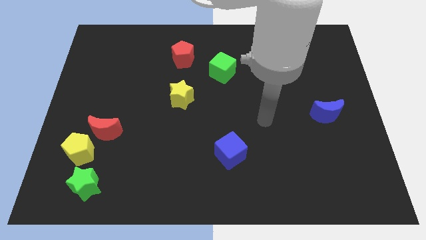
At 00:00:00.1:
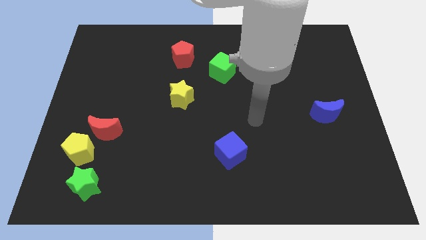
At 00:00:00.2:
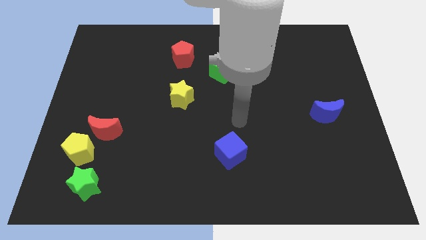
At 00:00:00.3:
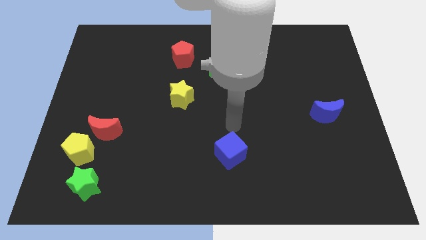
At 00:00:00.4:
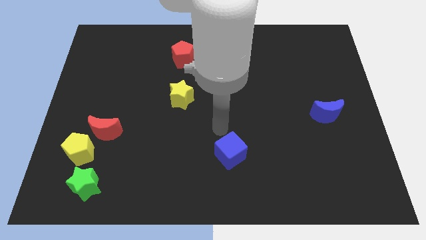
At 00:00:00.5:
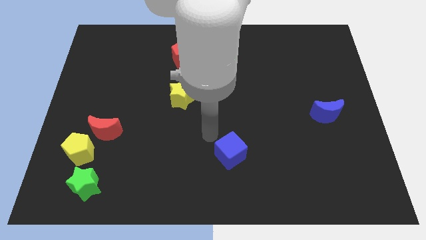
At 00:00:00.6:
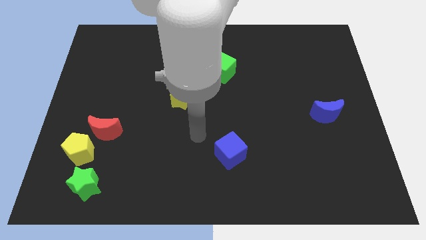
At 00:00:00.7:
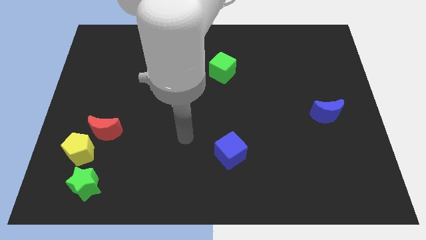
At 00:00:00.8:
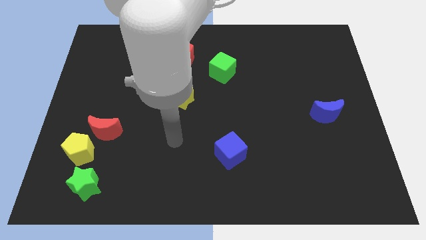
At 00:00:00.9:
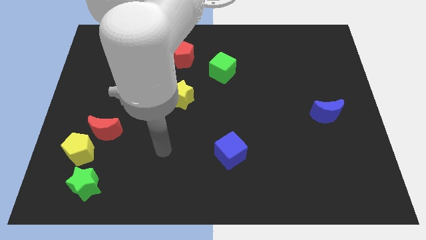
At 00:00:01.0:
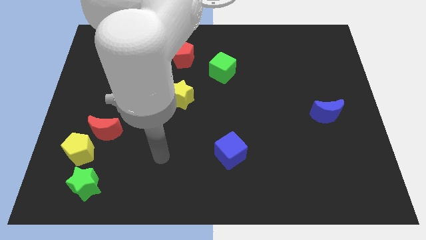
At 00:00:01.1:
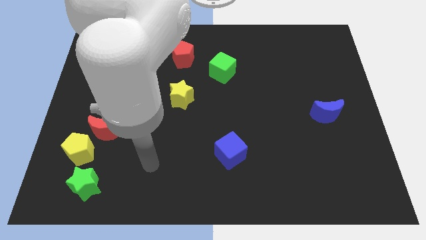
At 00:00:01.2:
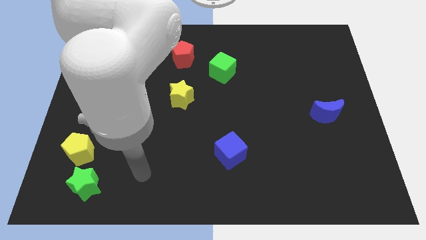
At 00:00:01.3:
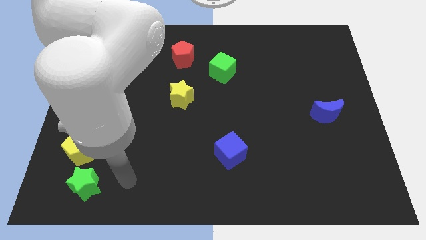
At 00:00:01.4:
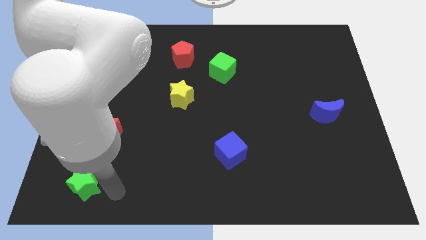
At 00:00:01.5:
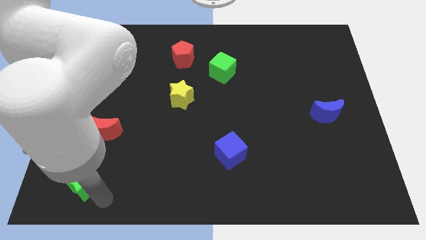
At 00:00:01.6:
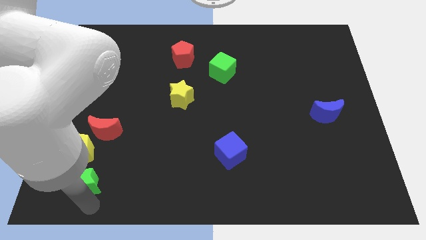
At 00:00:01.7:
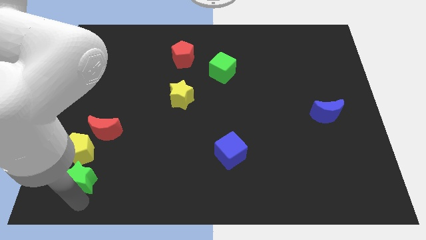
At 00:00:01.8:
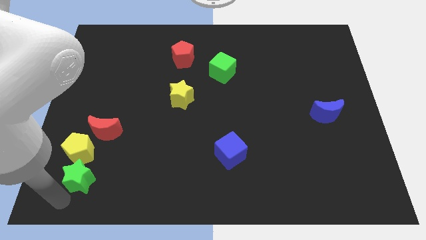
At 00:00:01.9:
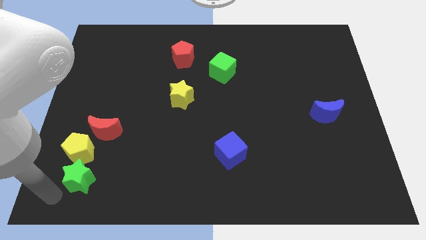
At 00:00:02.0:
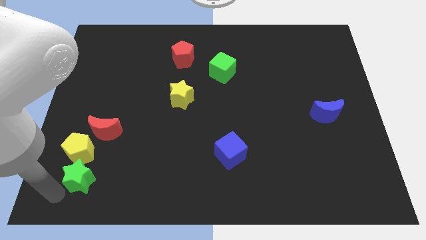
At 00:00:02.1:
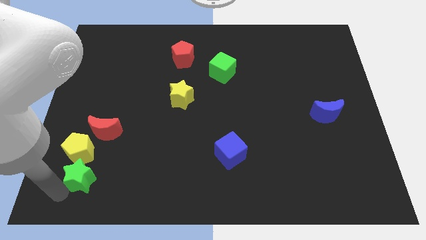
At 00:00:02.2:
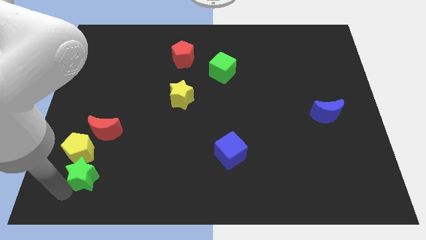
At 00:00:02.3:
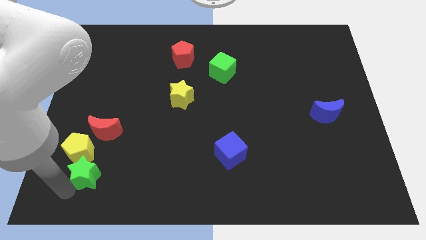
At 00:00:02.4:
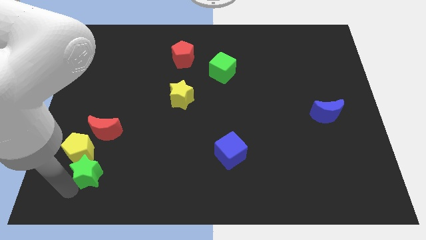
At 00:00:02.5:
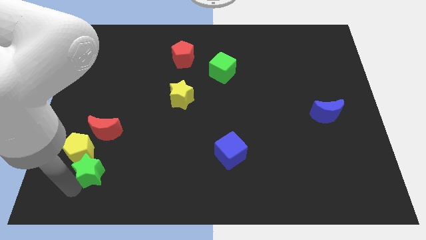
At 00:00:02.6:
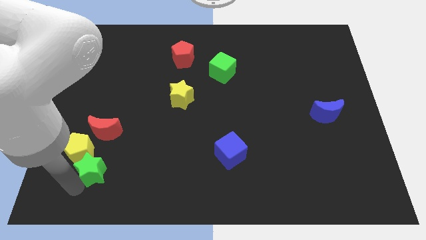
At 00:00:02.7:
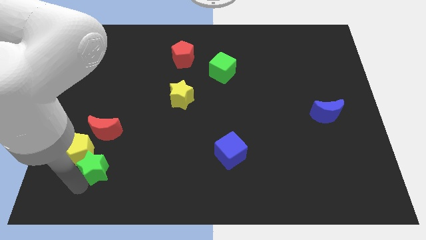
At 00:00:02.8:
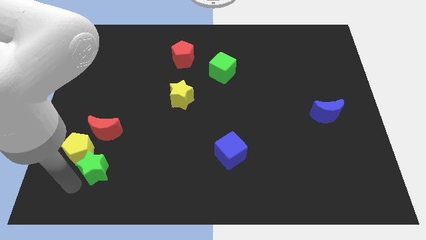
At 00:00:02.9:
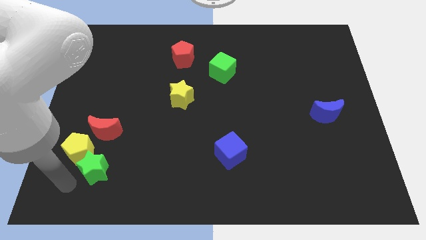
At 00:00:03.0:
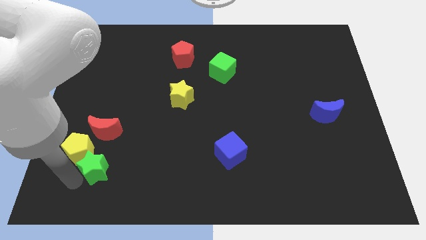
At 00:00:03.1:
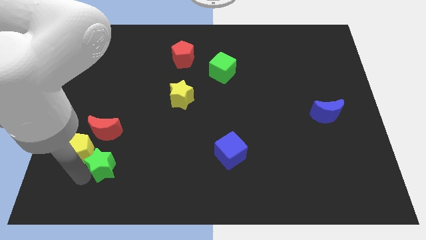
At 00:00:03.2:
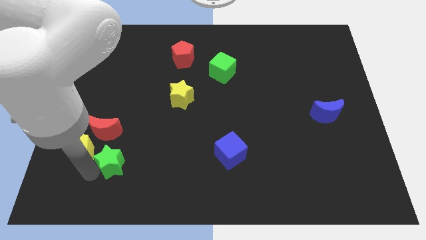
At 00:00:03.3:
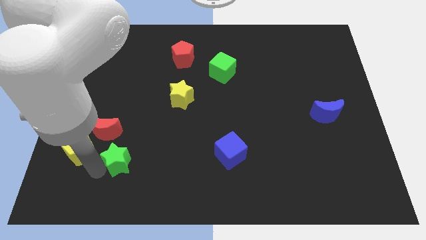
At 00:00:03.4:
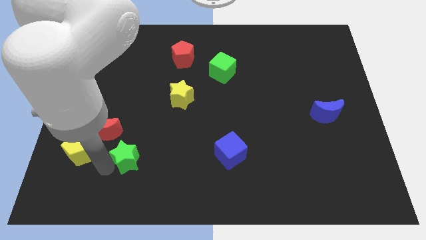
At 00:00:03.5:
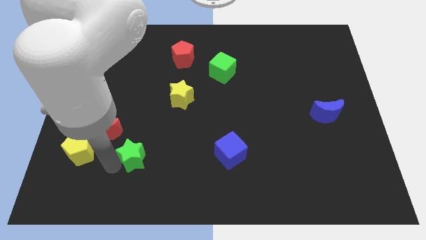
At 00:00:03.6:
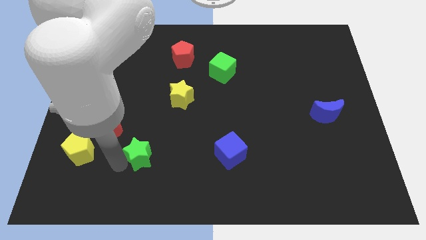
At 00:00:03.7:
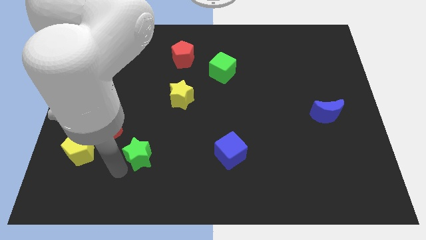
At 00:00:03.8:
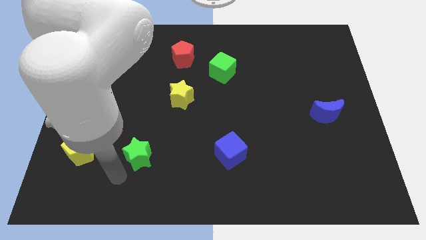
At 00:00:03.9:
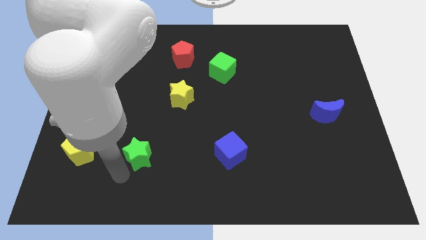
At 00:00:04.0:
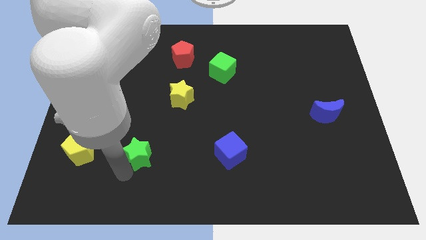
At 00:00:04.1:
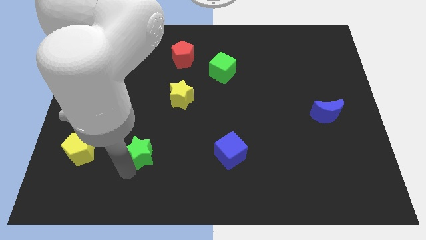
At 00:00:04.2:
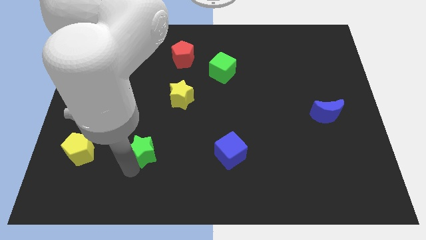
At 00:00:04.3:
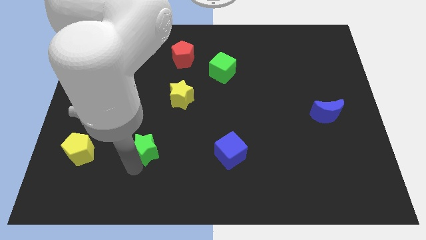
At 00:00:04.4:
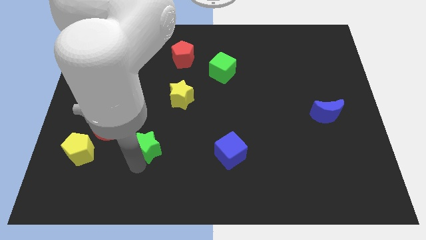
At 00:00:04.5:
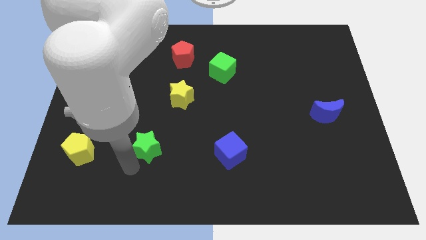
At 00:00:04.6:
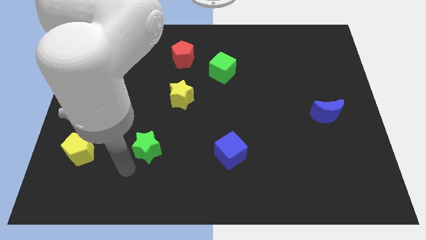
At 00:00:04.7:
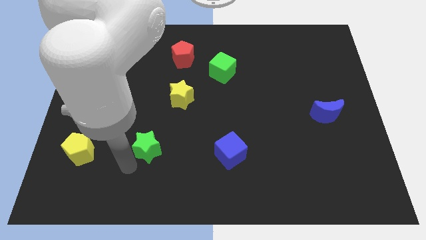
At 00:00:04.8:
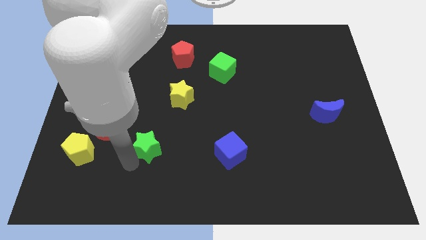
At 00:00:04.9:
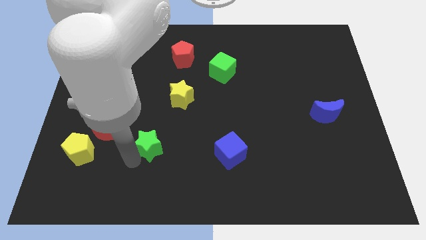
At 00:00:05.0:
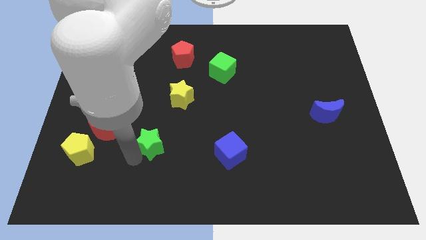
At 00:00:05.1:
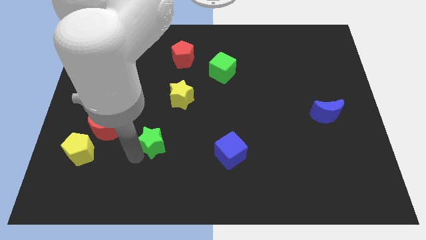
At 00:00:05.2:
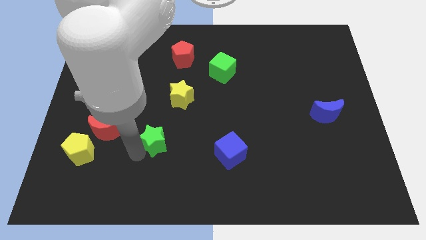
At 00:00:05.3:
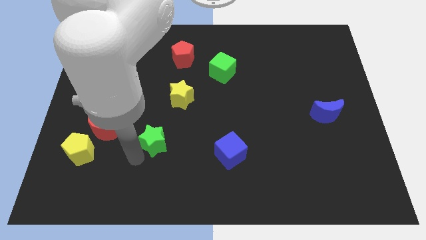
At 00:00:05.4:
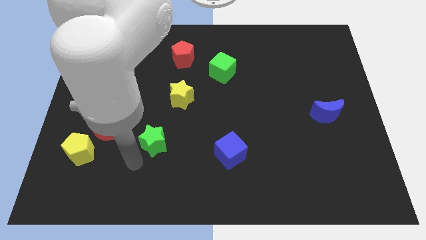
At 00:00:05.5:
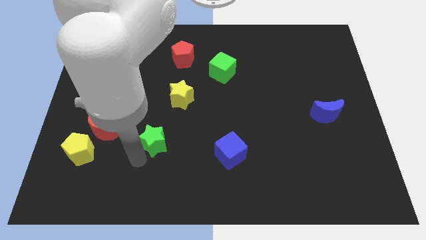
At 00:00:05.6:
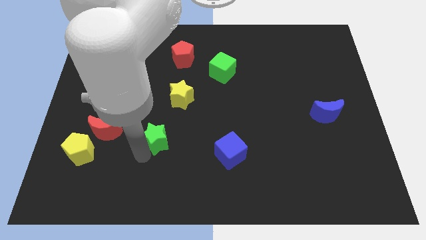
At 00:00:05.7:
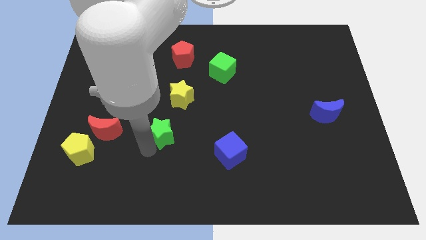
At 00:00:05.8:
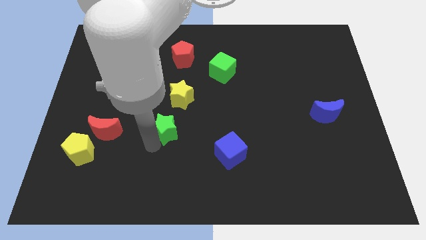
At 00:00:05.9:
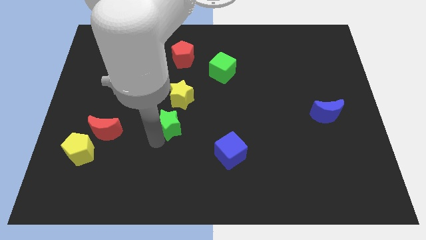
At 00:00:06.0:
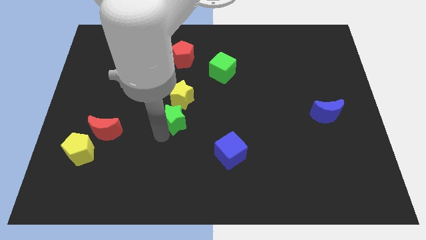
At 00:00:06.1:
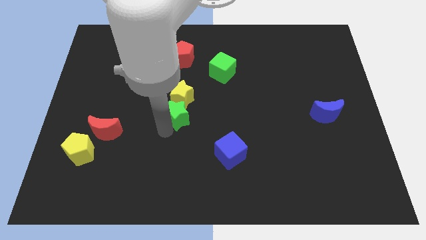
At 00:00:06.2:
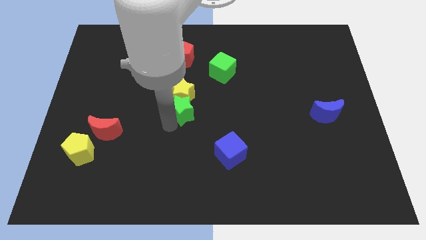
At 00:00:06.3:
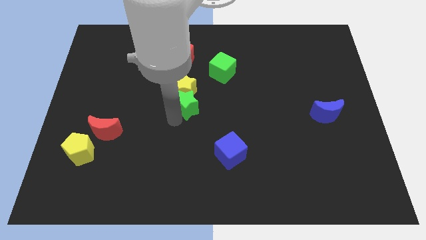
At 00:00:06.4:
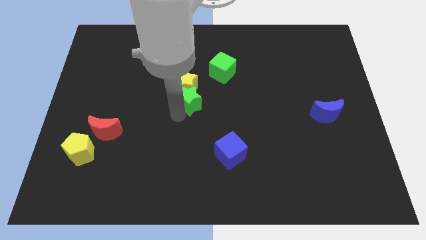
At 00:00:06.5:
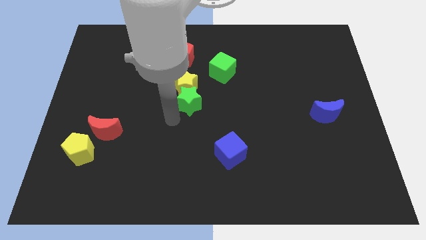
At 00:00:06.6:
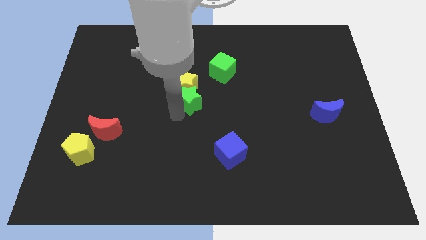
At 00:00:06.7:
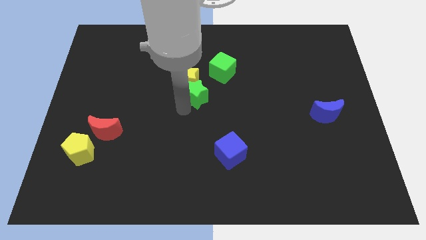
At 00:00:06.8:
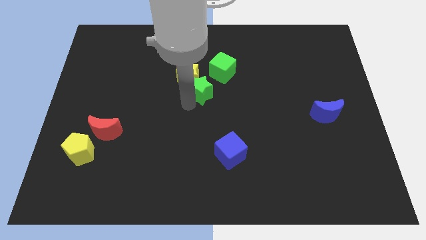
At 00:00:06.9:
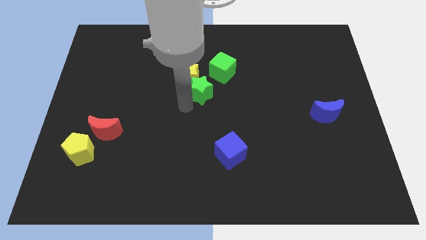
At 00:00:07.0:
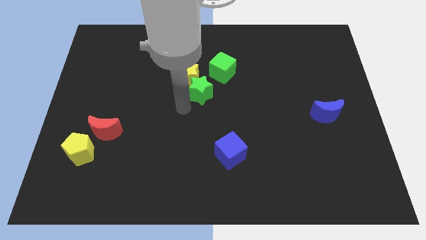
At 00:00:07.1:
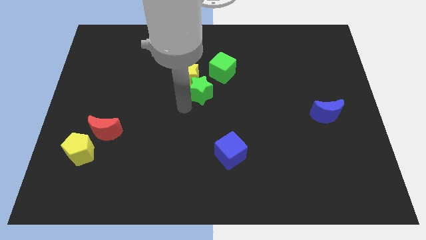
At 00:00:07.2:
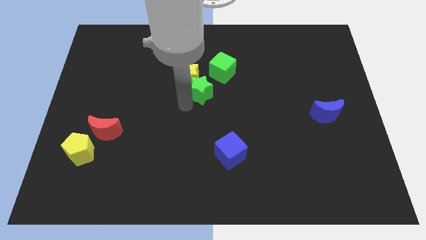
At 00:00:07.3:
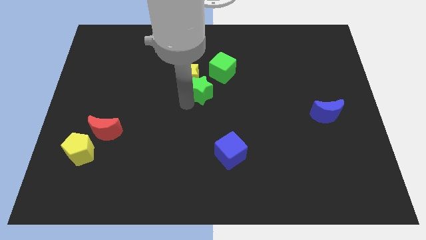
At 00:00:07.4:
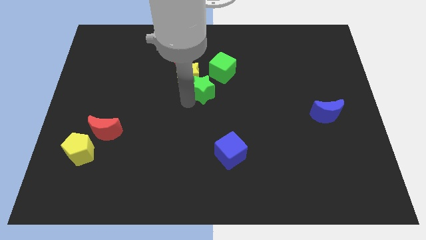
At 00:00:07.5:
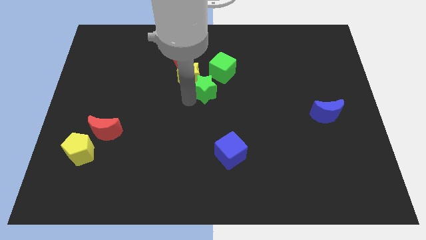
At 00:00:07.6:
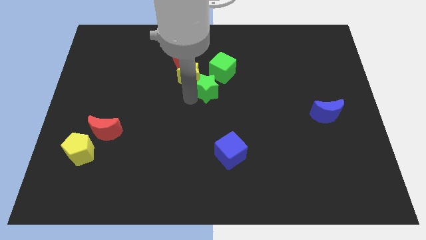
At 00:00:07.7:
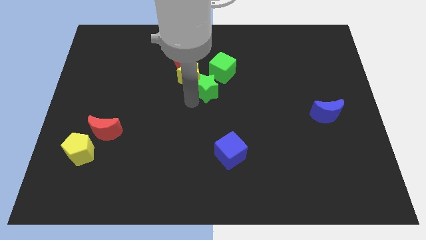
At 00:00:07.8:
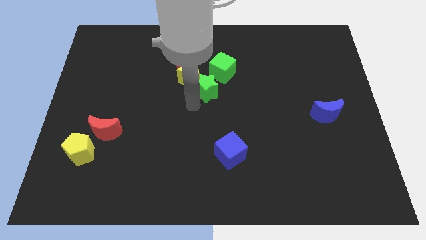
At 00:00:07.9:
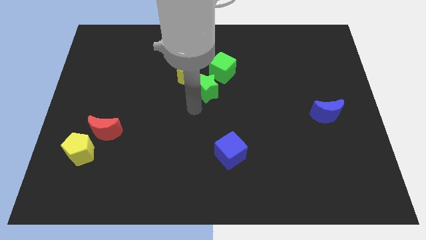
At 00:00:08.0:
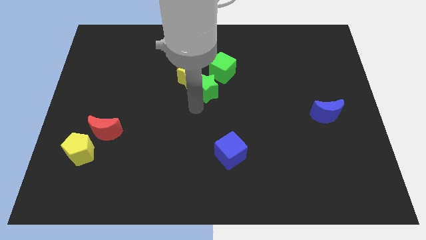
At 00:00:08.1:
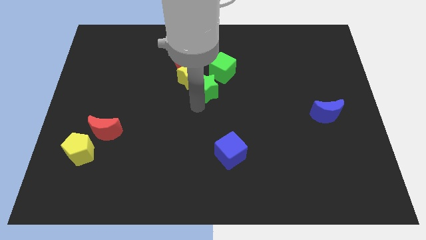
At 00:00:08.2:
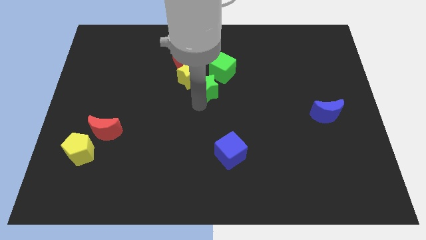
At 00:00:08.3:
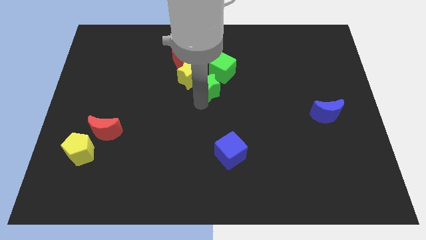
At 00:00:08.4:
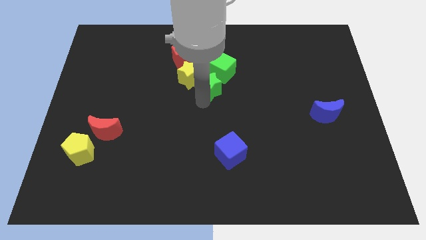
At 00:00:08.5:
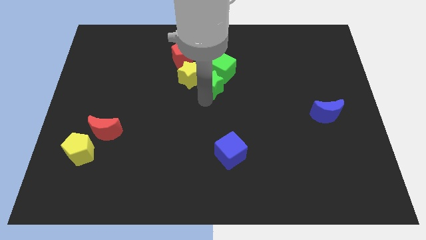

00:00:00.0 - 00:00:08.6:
put the green star to the green cube

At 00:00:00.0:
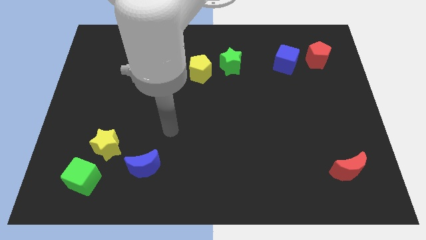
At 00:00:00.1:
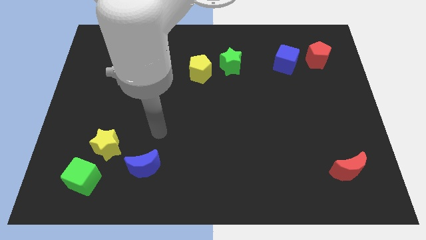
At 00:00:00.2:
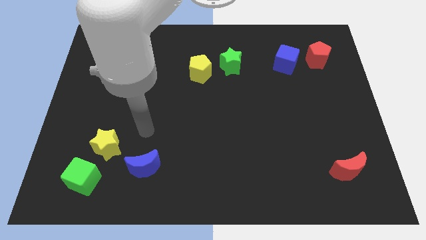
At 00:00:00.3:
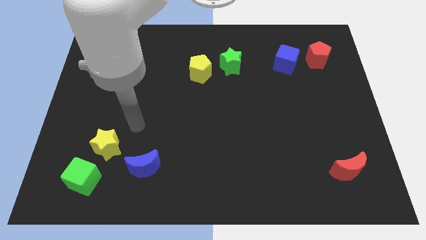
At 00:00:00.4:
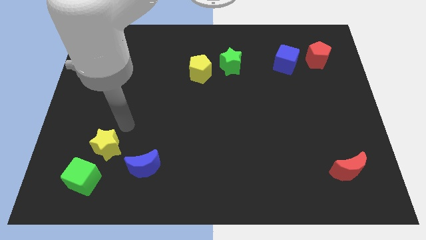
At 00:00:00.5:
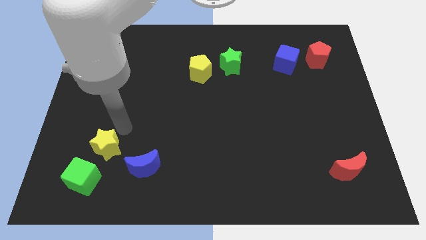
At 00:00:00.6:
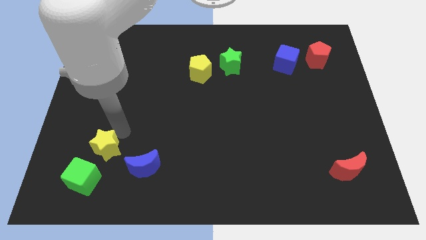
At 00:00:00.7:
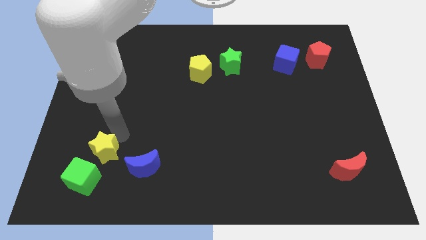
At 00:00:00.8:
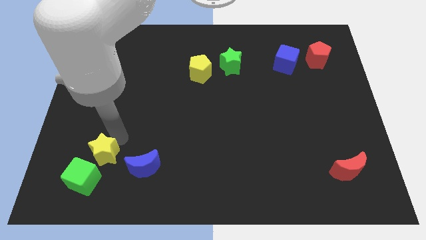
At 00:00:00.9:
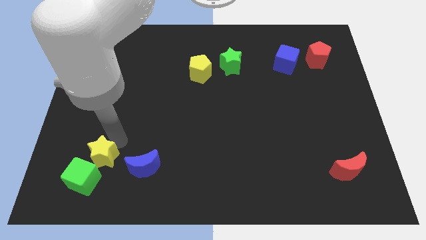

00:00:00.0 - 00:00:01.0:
move the yellow star to the green cube
